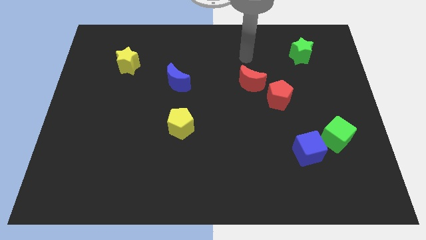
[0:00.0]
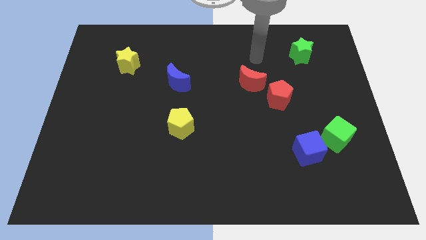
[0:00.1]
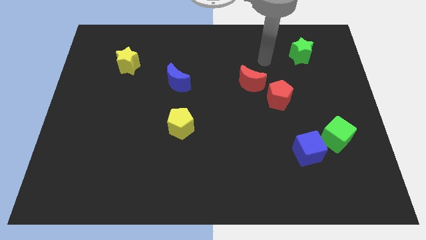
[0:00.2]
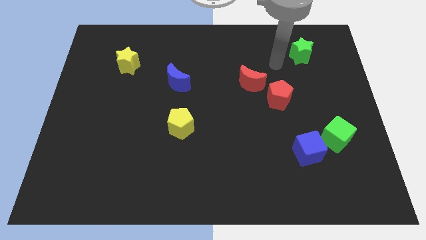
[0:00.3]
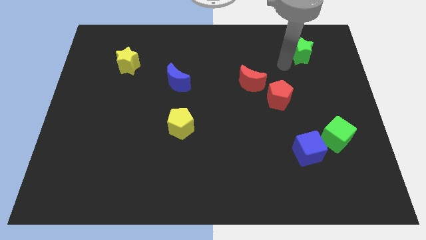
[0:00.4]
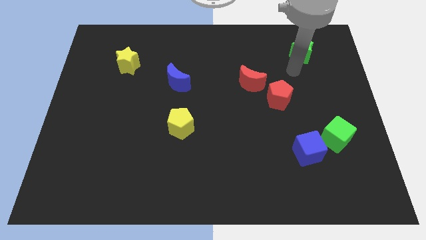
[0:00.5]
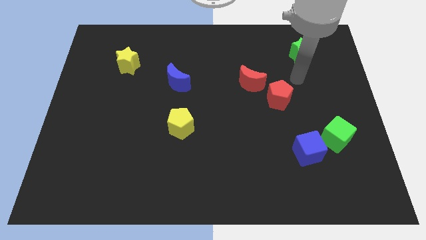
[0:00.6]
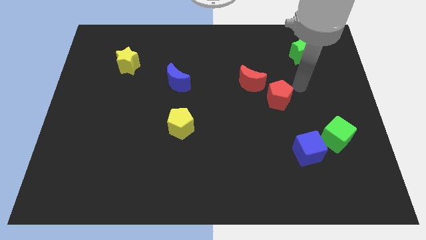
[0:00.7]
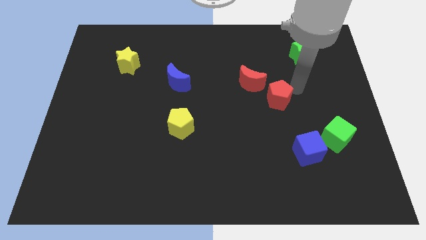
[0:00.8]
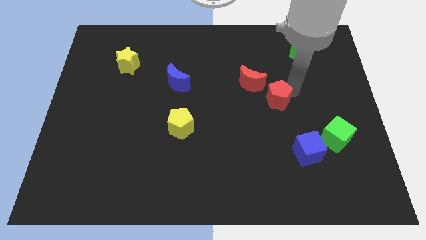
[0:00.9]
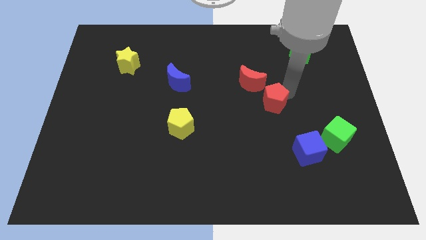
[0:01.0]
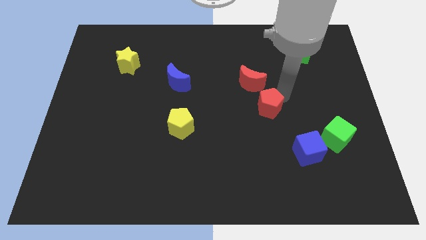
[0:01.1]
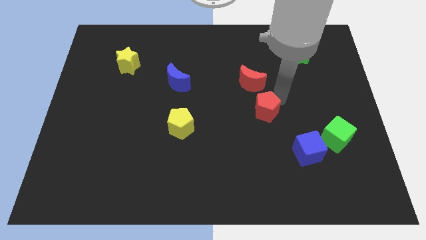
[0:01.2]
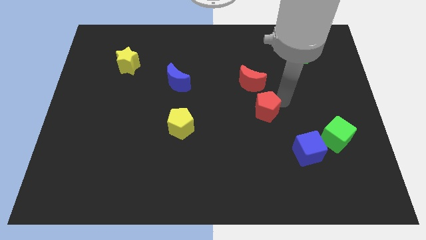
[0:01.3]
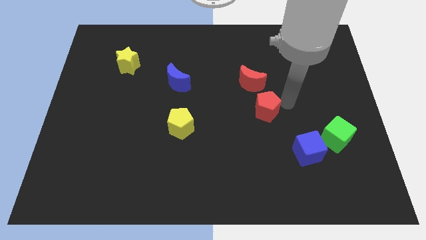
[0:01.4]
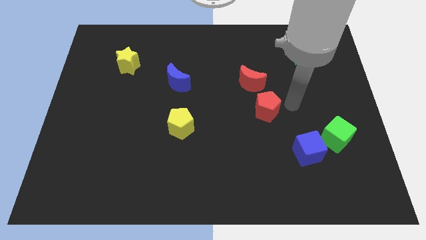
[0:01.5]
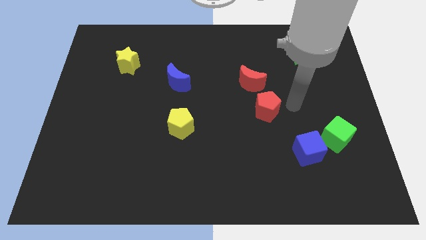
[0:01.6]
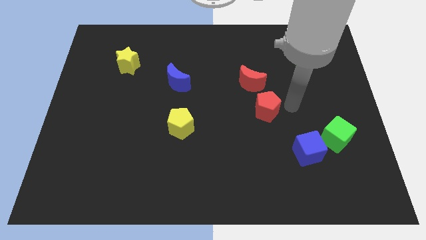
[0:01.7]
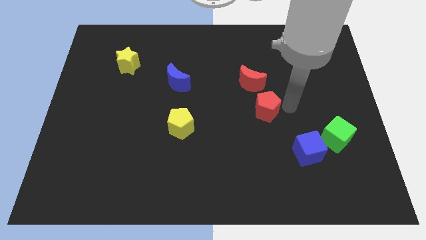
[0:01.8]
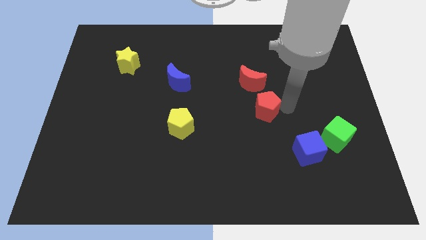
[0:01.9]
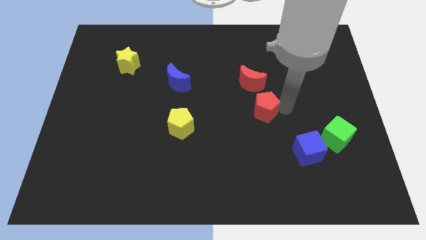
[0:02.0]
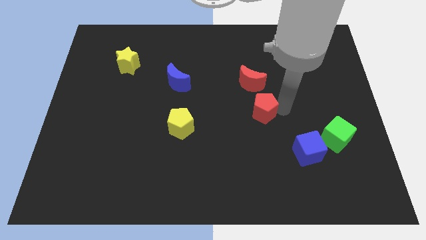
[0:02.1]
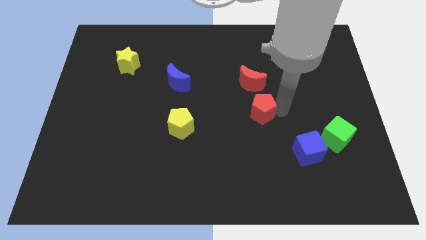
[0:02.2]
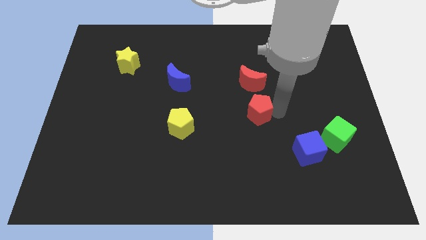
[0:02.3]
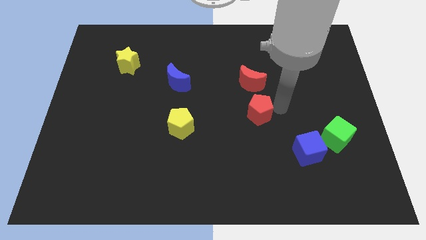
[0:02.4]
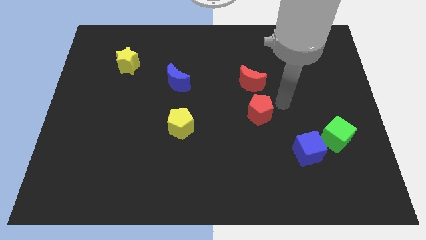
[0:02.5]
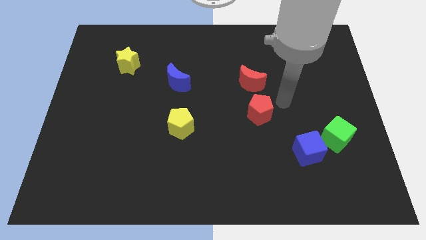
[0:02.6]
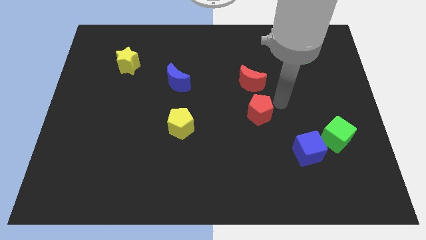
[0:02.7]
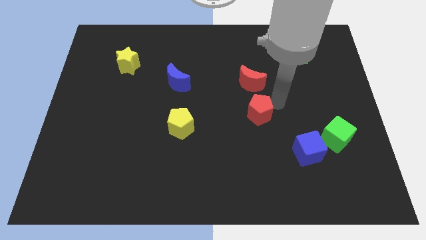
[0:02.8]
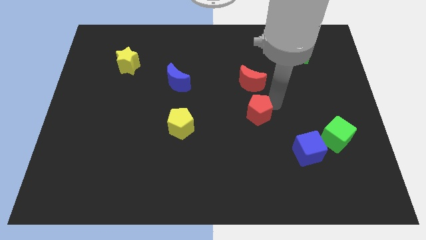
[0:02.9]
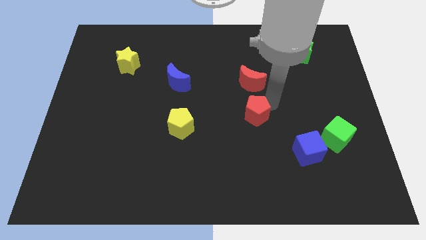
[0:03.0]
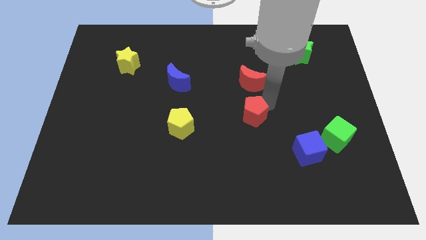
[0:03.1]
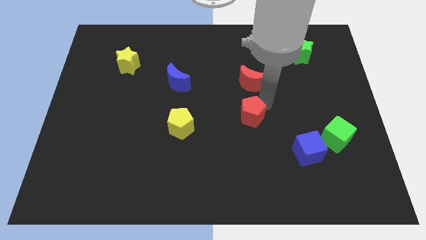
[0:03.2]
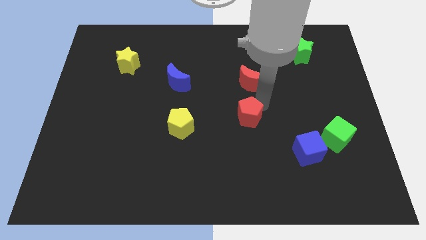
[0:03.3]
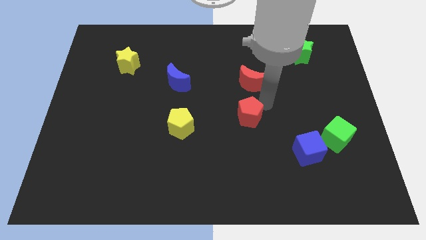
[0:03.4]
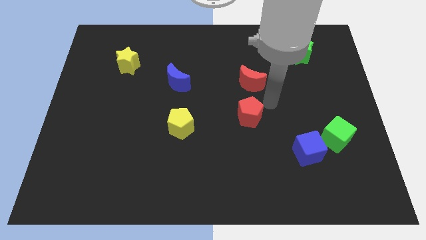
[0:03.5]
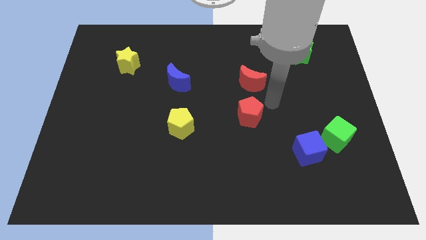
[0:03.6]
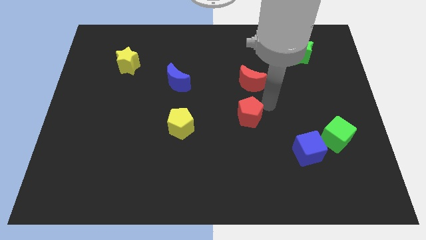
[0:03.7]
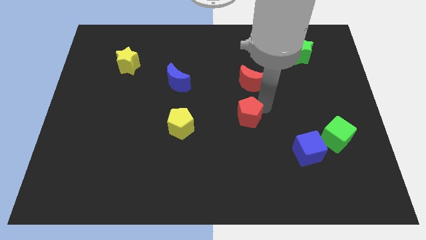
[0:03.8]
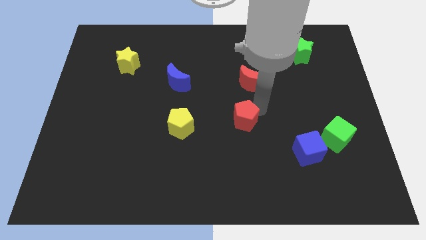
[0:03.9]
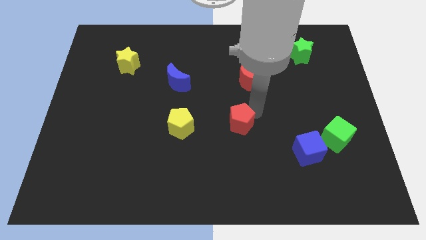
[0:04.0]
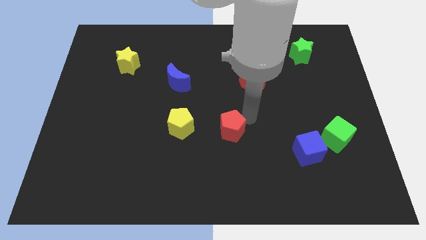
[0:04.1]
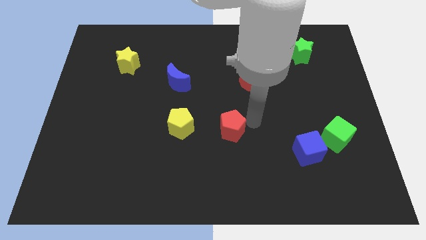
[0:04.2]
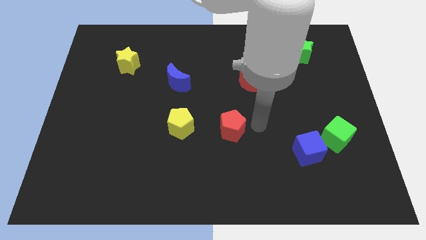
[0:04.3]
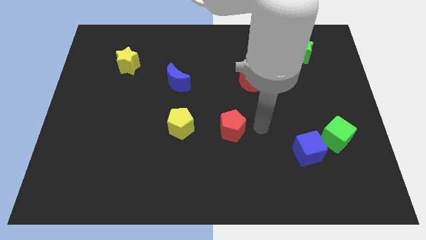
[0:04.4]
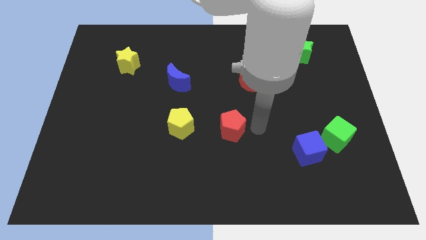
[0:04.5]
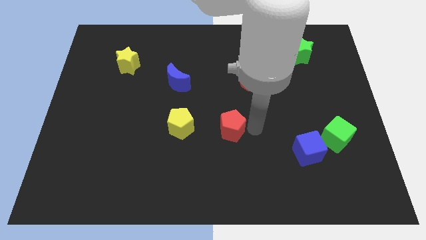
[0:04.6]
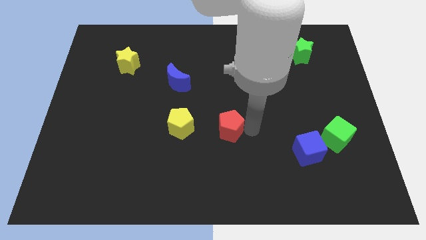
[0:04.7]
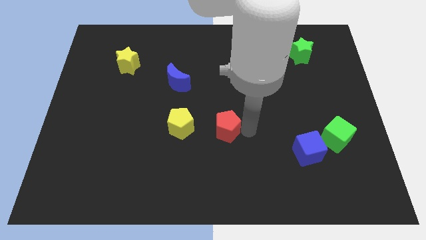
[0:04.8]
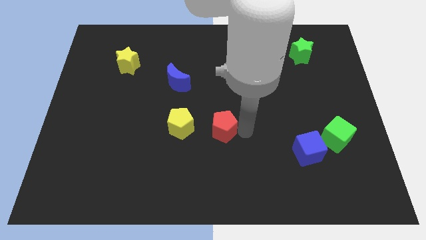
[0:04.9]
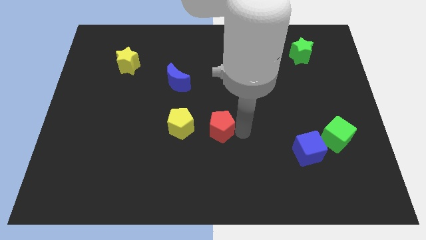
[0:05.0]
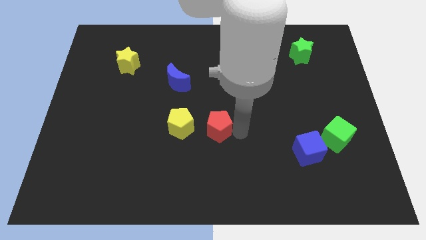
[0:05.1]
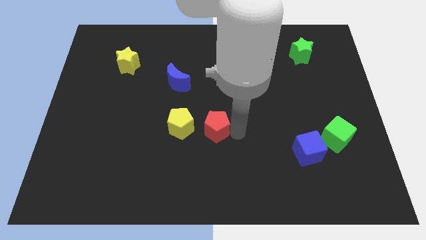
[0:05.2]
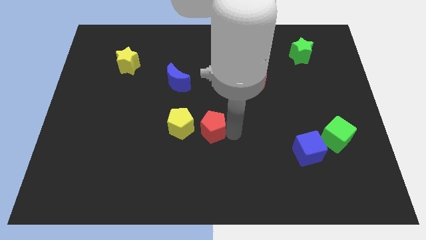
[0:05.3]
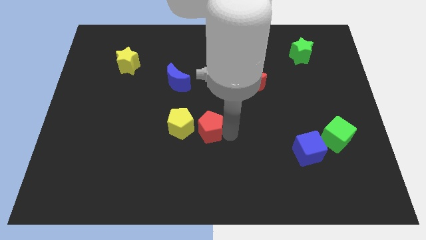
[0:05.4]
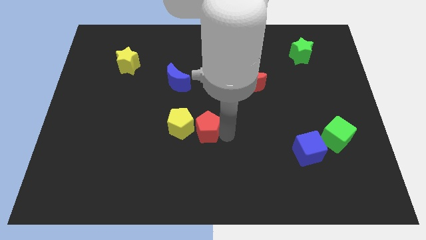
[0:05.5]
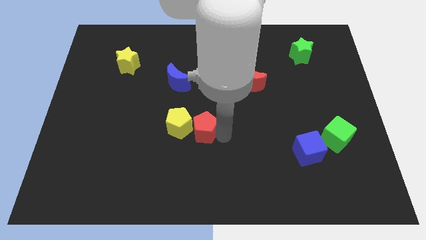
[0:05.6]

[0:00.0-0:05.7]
slide the red pentagon towards the yellow pentagon

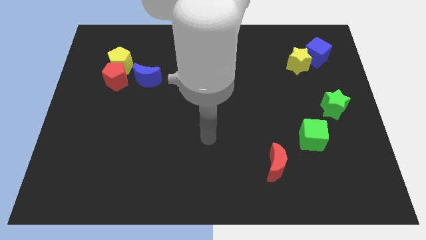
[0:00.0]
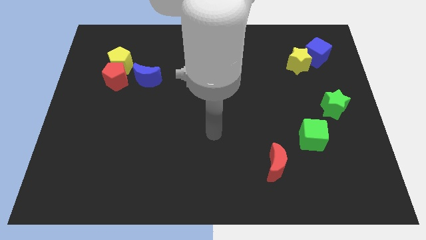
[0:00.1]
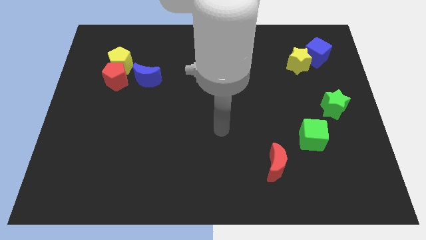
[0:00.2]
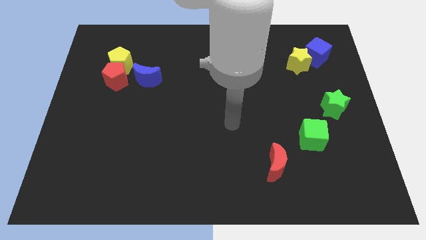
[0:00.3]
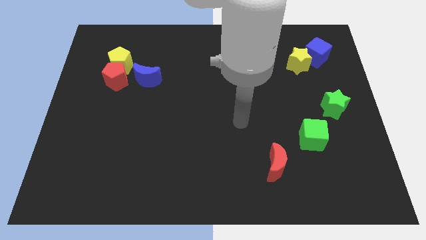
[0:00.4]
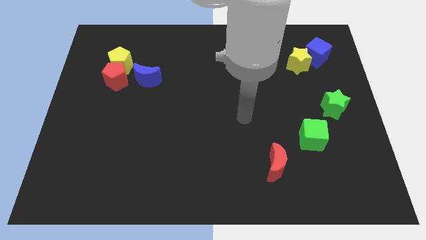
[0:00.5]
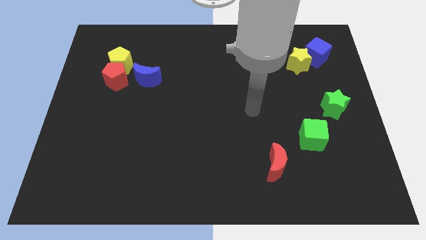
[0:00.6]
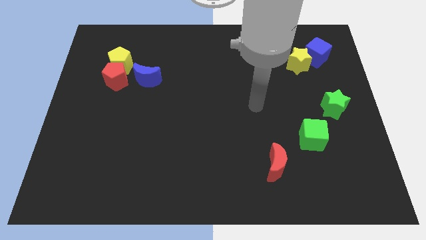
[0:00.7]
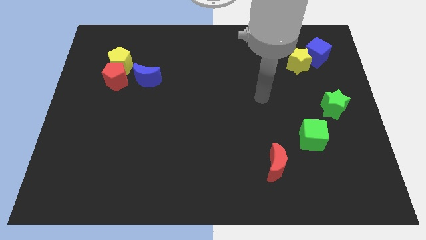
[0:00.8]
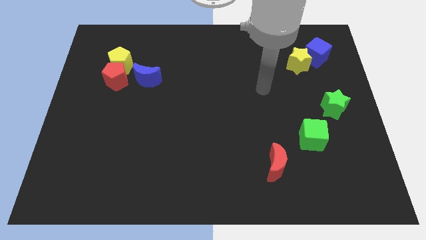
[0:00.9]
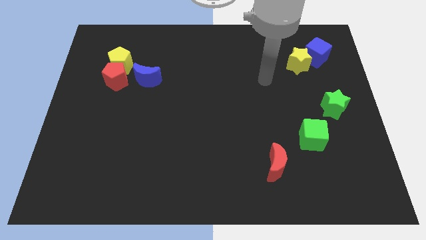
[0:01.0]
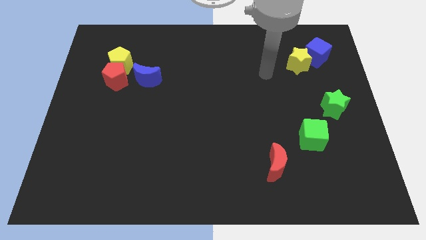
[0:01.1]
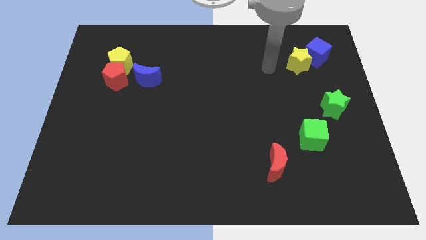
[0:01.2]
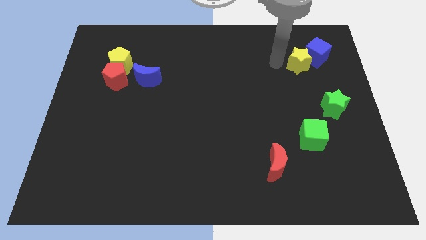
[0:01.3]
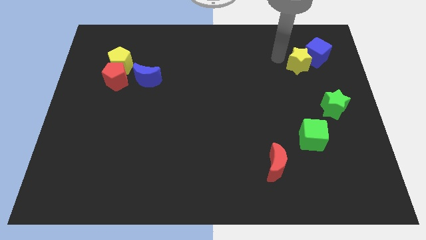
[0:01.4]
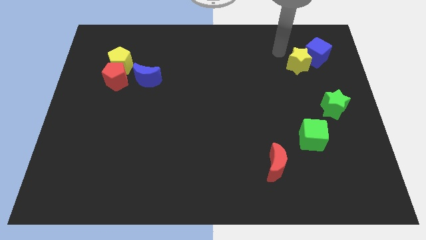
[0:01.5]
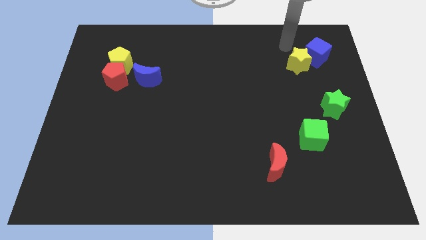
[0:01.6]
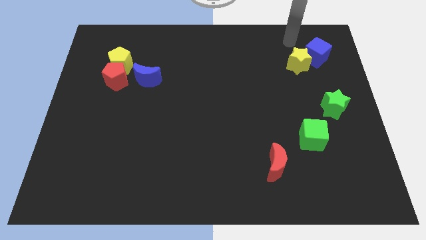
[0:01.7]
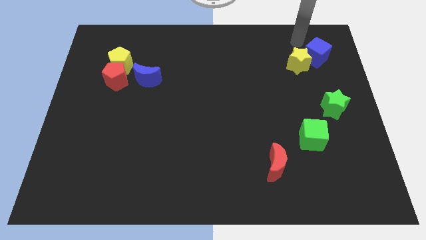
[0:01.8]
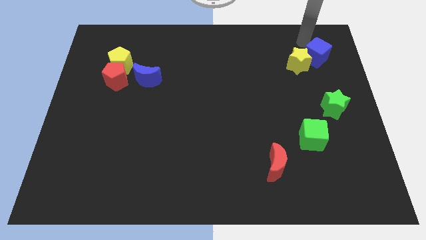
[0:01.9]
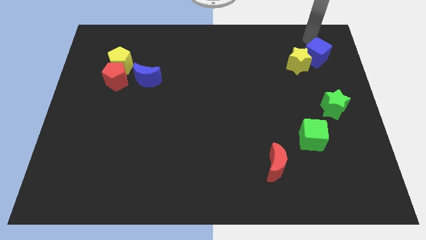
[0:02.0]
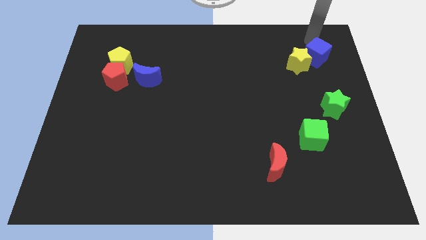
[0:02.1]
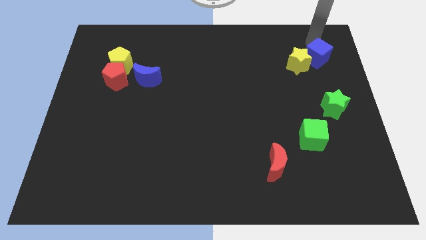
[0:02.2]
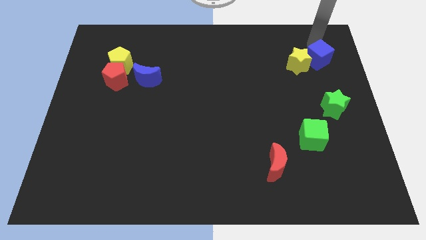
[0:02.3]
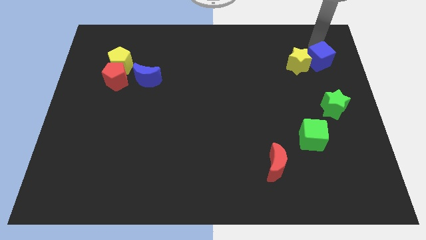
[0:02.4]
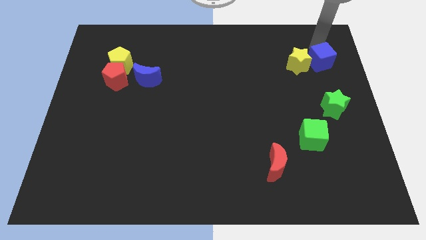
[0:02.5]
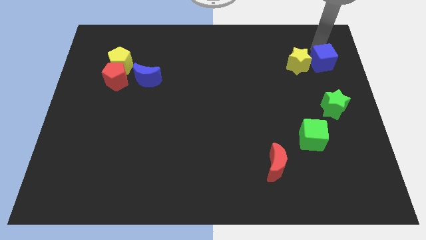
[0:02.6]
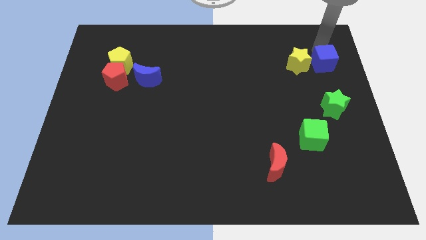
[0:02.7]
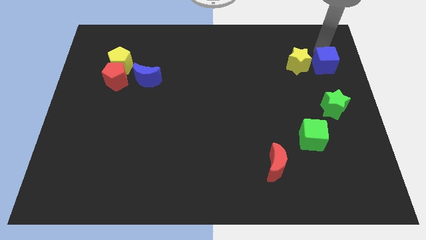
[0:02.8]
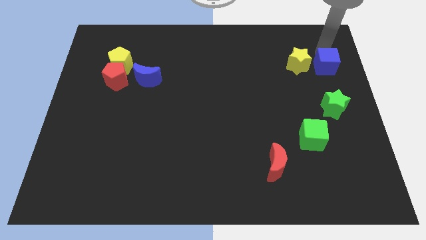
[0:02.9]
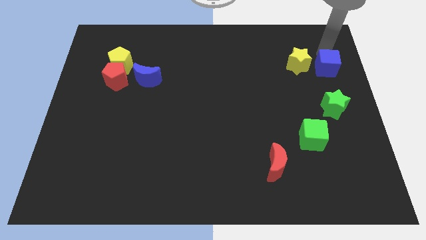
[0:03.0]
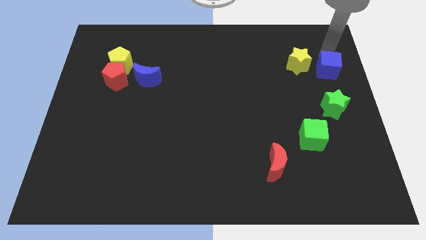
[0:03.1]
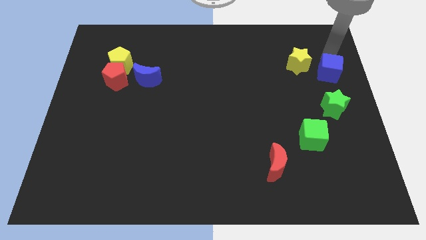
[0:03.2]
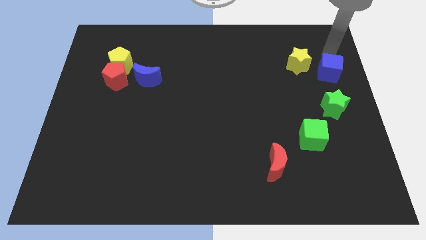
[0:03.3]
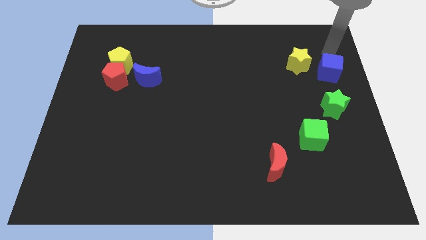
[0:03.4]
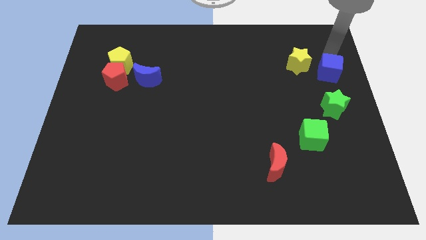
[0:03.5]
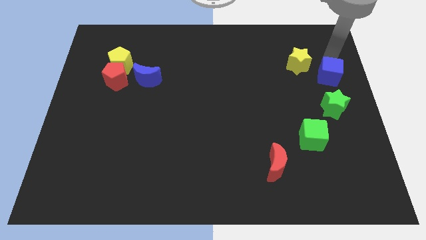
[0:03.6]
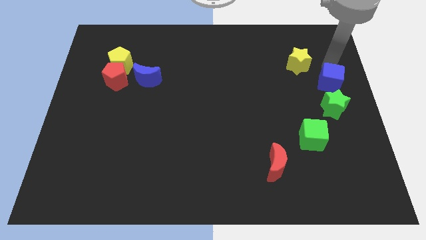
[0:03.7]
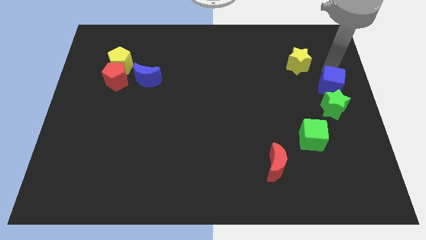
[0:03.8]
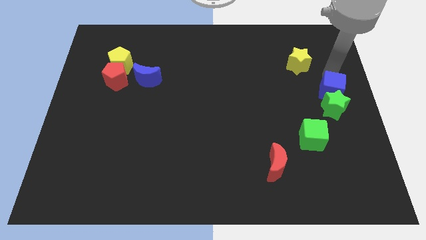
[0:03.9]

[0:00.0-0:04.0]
put the blue cube towards the green star
